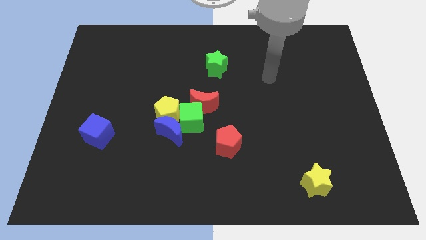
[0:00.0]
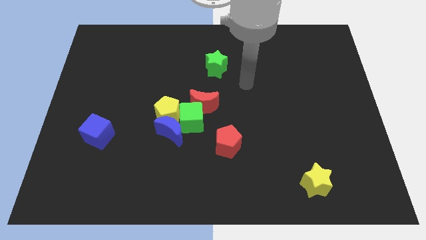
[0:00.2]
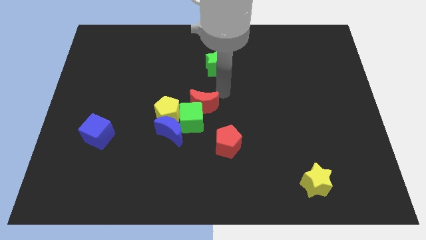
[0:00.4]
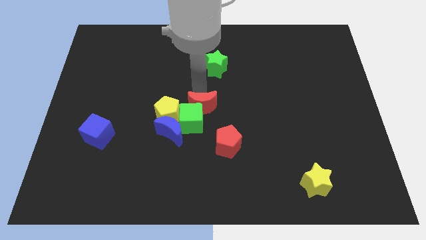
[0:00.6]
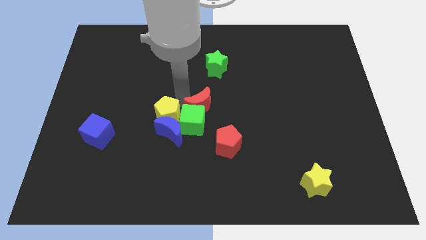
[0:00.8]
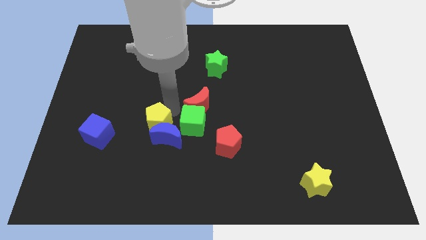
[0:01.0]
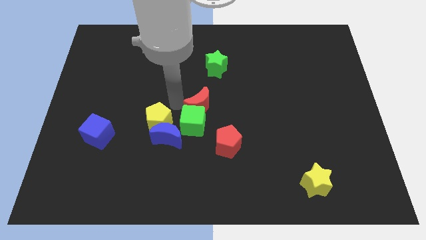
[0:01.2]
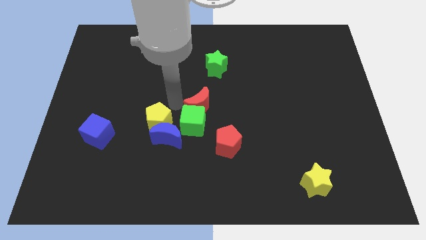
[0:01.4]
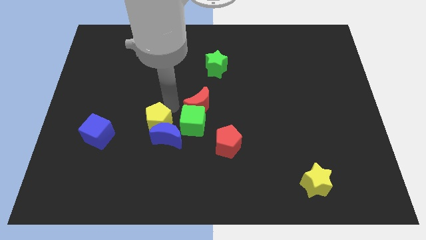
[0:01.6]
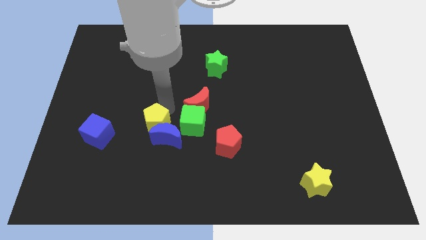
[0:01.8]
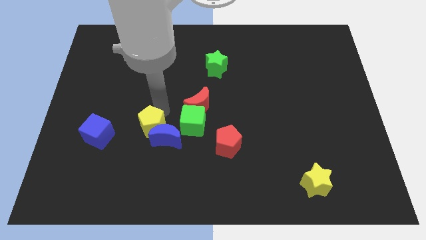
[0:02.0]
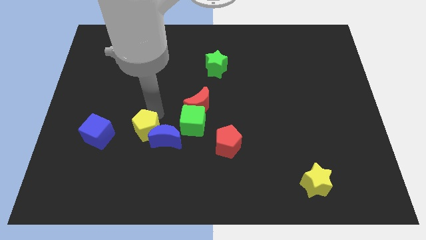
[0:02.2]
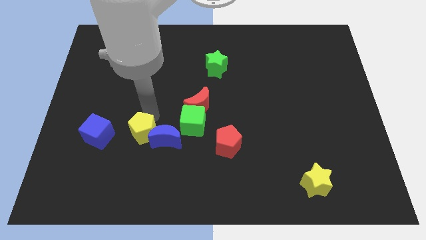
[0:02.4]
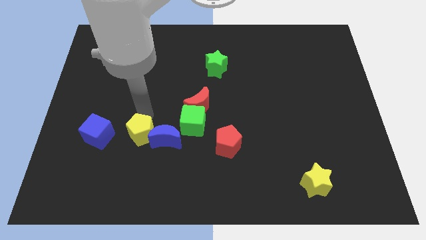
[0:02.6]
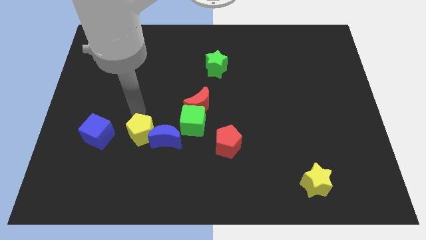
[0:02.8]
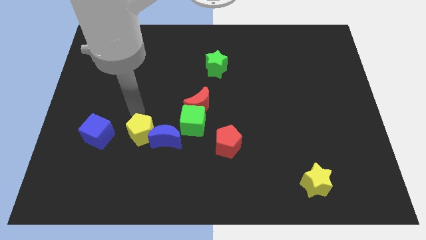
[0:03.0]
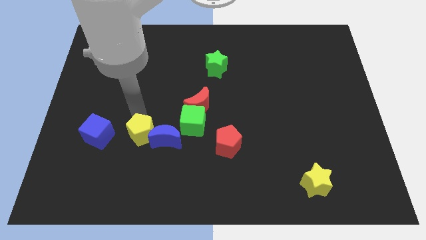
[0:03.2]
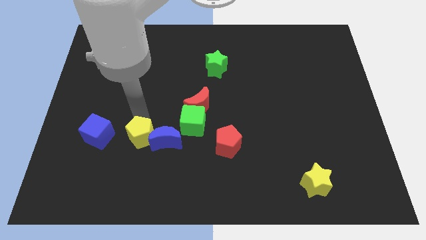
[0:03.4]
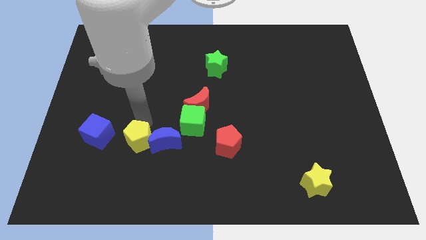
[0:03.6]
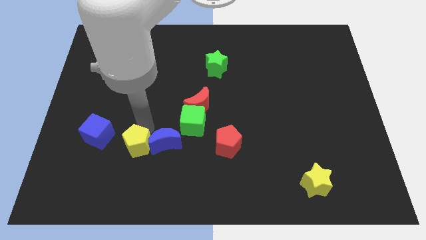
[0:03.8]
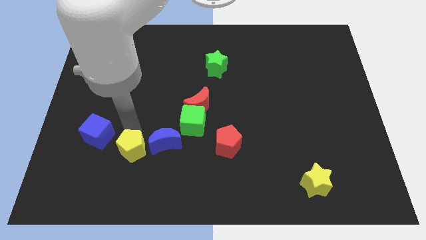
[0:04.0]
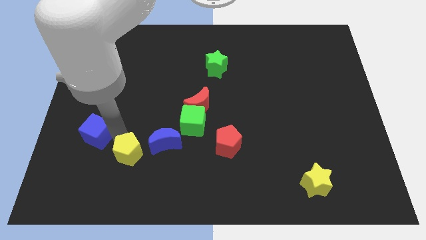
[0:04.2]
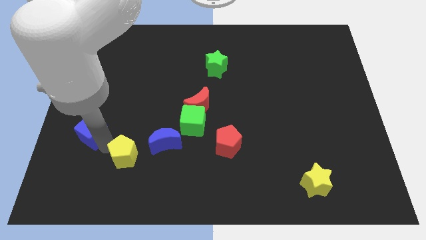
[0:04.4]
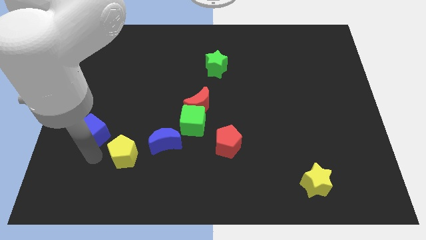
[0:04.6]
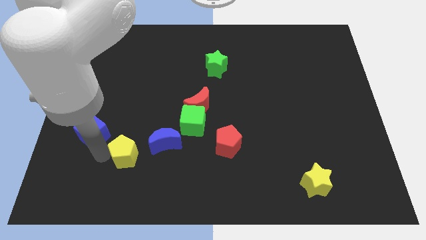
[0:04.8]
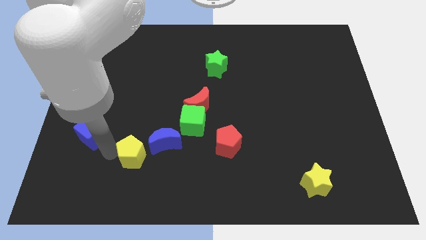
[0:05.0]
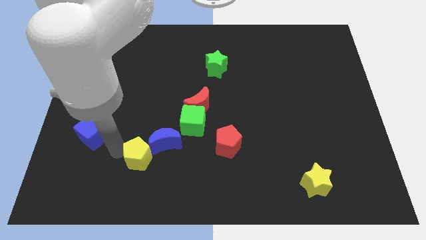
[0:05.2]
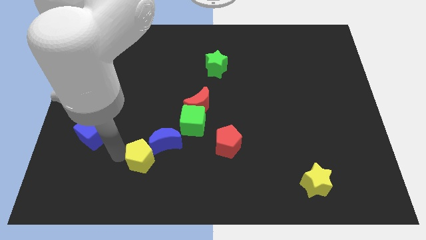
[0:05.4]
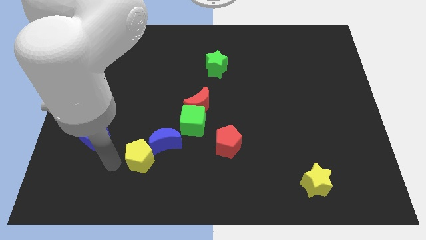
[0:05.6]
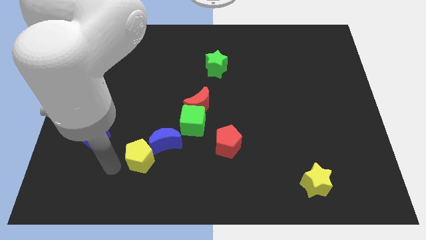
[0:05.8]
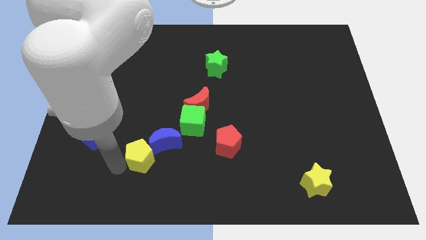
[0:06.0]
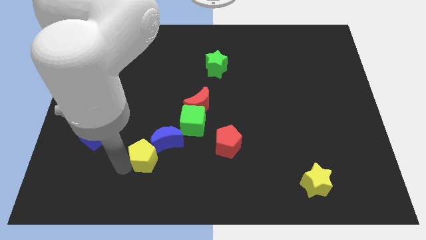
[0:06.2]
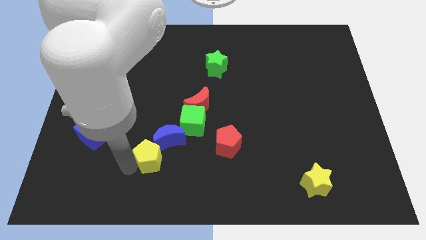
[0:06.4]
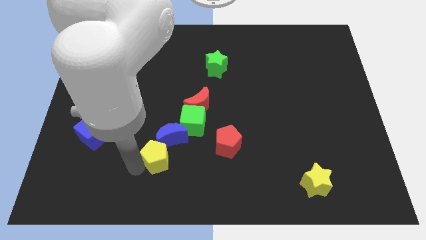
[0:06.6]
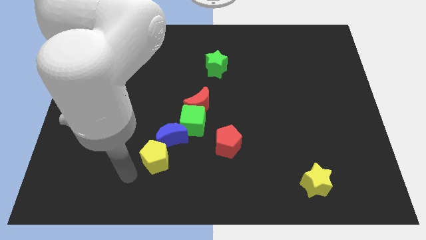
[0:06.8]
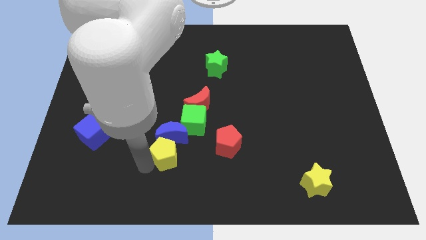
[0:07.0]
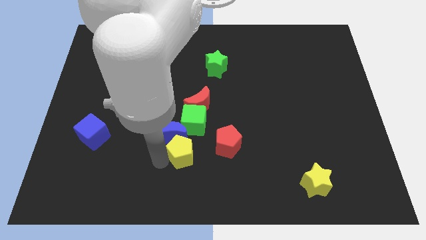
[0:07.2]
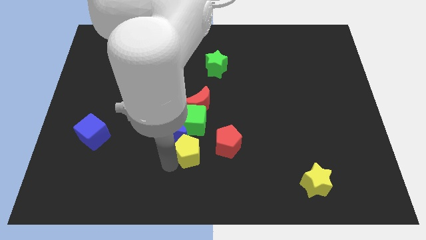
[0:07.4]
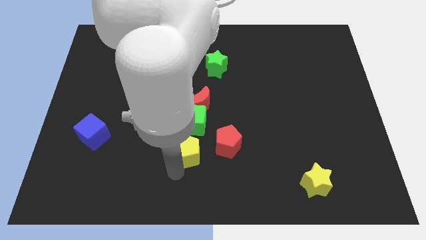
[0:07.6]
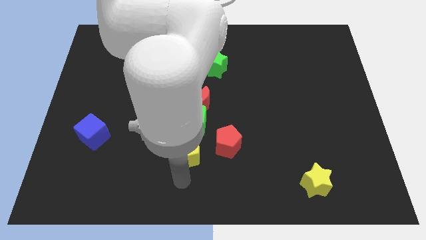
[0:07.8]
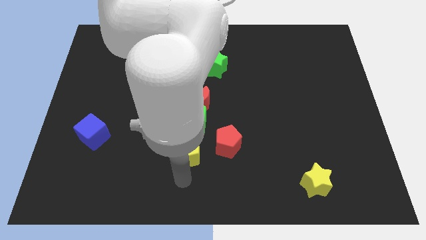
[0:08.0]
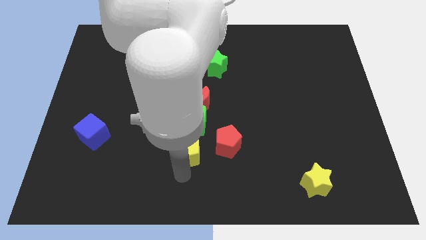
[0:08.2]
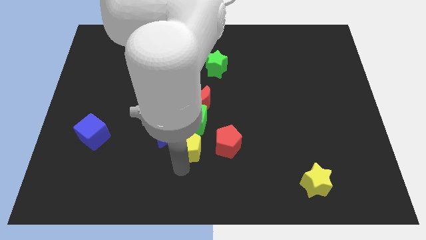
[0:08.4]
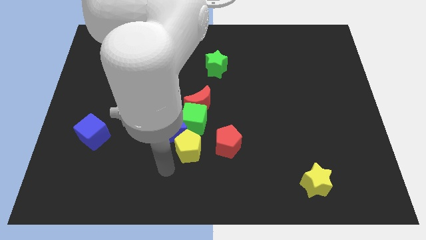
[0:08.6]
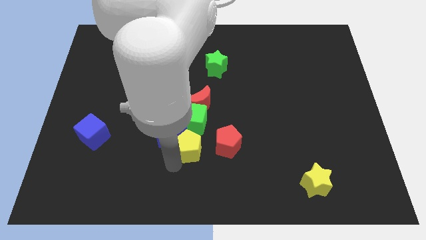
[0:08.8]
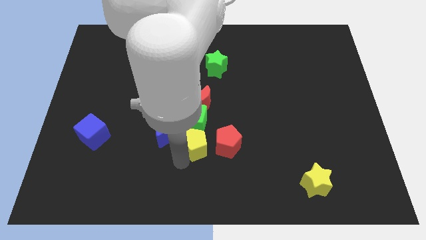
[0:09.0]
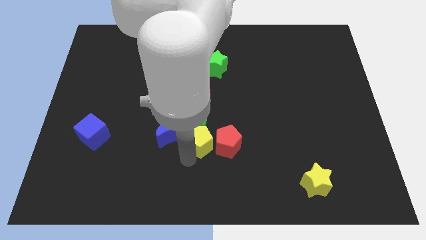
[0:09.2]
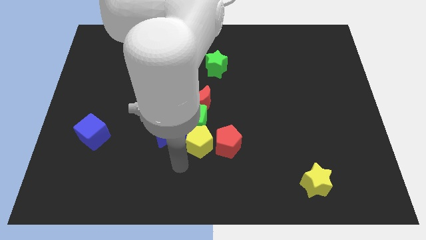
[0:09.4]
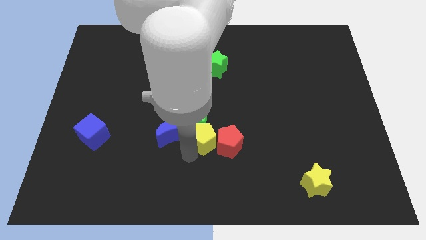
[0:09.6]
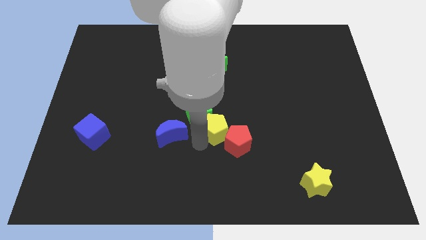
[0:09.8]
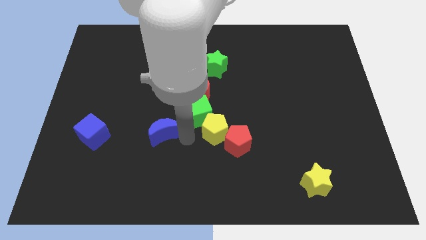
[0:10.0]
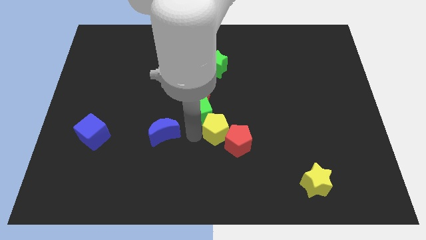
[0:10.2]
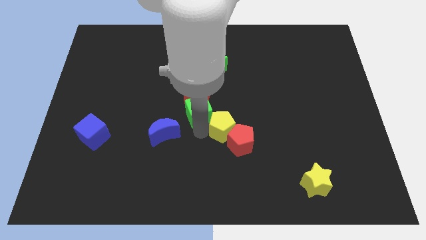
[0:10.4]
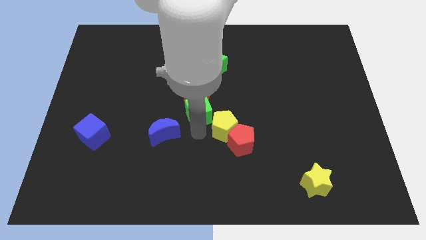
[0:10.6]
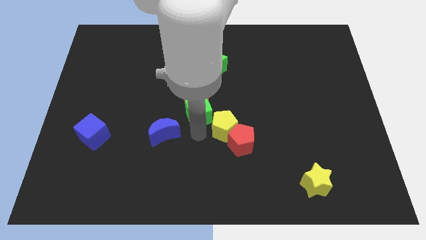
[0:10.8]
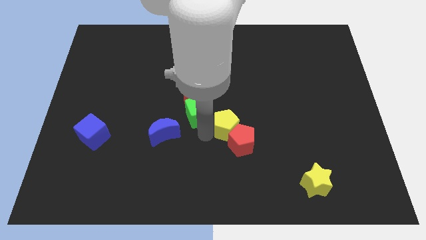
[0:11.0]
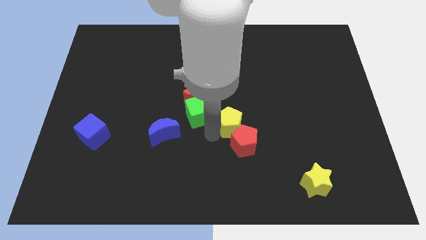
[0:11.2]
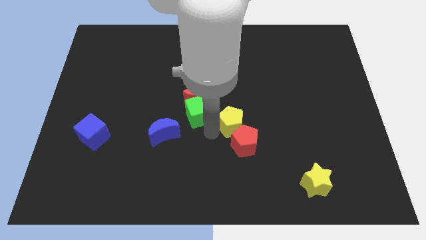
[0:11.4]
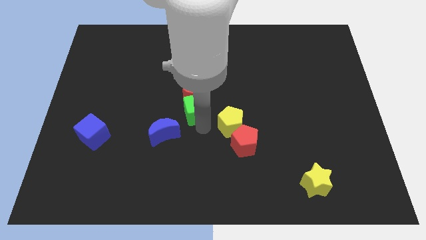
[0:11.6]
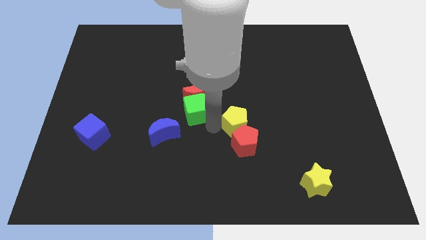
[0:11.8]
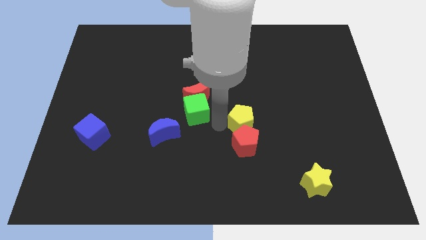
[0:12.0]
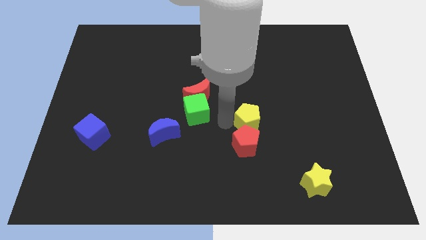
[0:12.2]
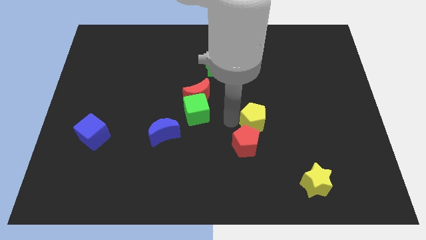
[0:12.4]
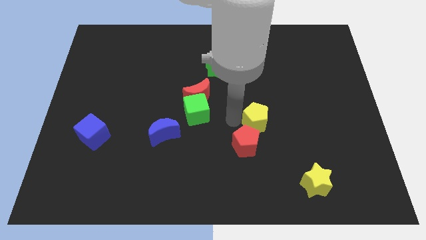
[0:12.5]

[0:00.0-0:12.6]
move the yellow pentagon to the right

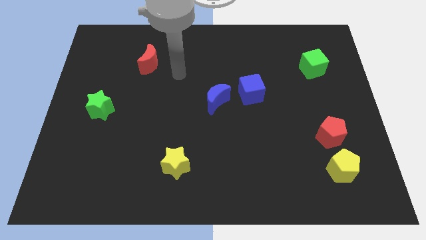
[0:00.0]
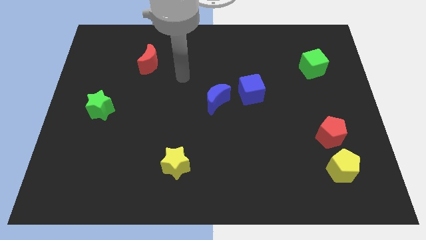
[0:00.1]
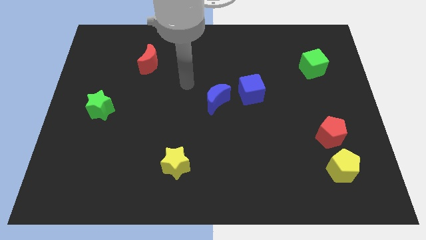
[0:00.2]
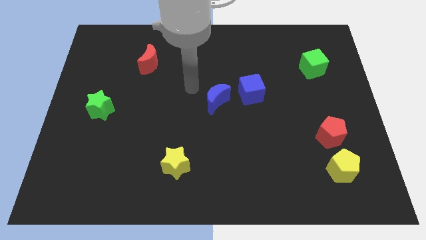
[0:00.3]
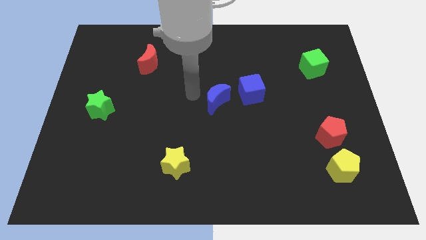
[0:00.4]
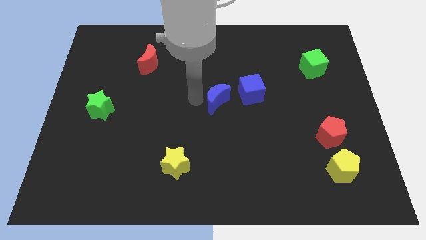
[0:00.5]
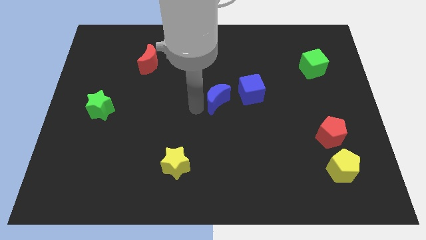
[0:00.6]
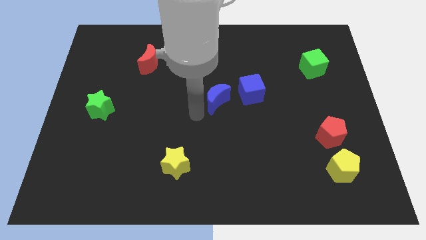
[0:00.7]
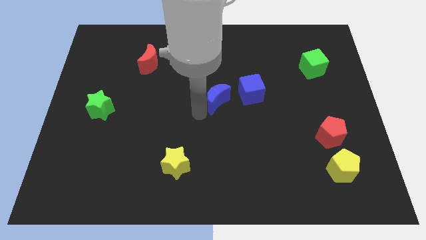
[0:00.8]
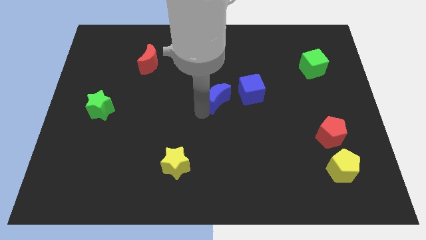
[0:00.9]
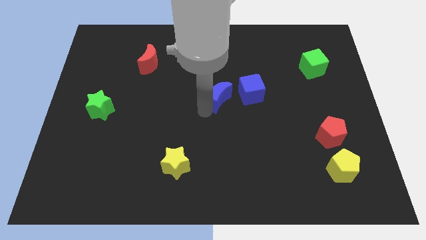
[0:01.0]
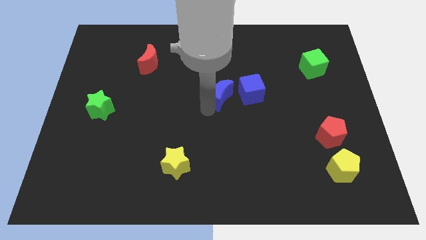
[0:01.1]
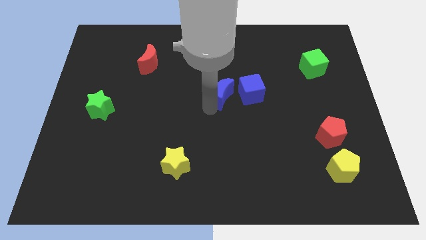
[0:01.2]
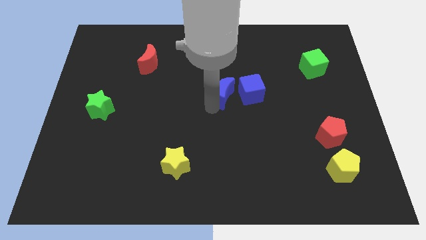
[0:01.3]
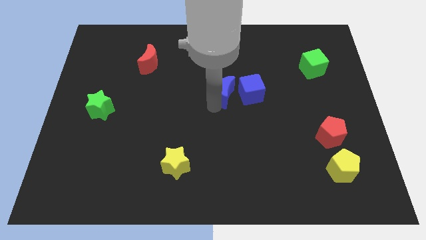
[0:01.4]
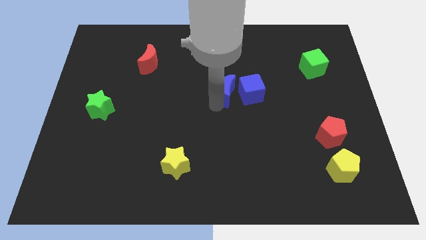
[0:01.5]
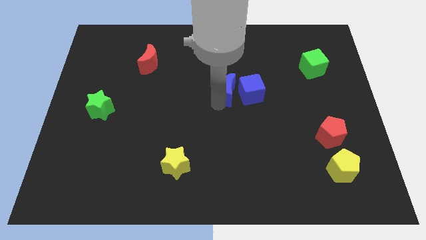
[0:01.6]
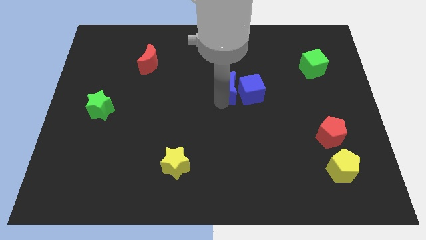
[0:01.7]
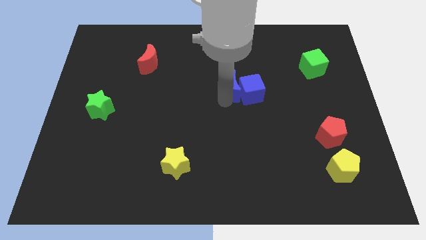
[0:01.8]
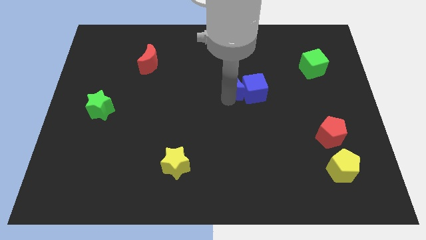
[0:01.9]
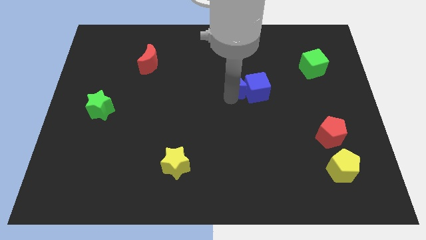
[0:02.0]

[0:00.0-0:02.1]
move the blue moon up and right somewhat
